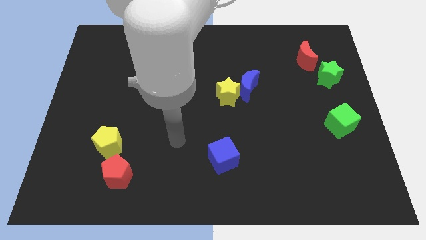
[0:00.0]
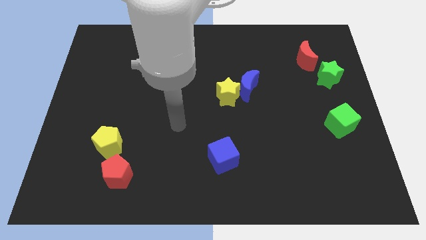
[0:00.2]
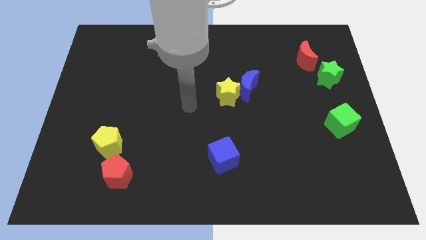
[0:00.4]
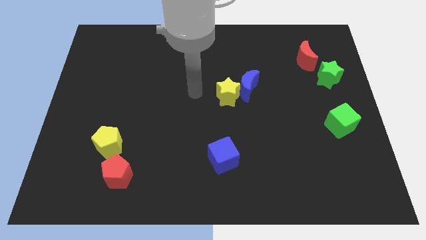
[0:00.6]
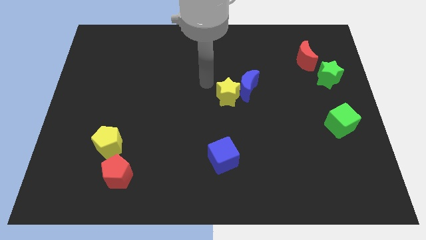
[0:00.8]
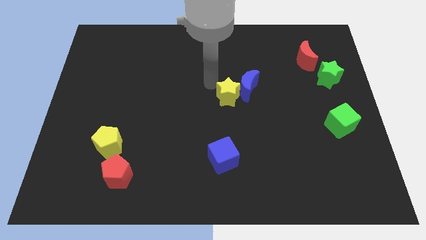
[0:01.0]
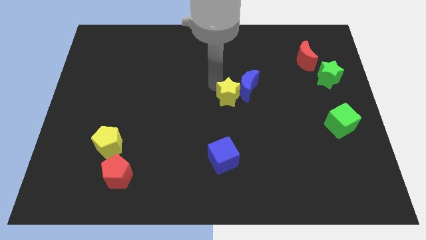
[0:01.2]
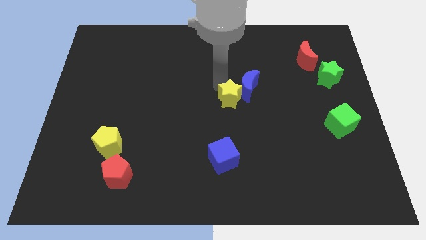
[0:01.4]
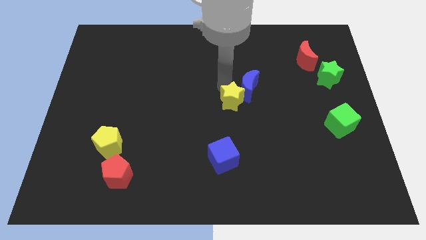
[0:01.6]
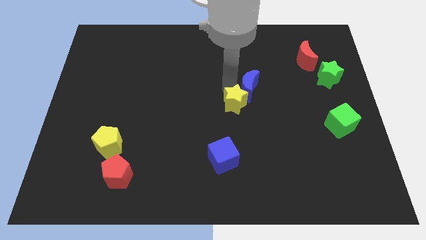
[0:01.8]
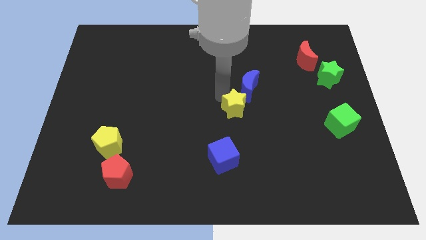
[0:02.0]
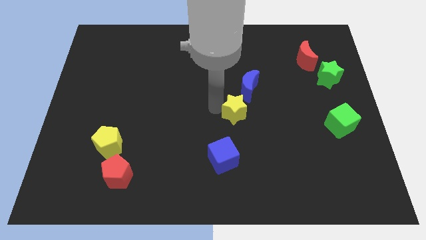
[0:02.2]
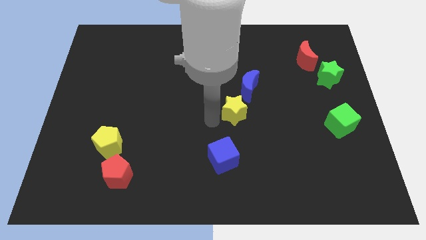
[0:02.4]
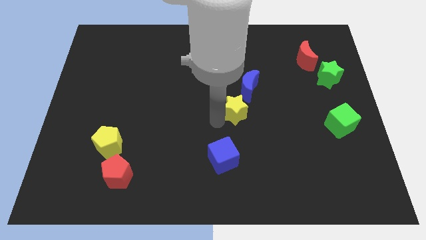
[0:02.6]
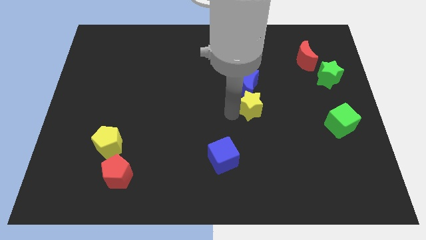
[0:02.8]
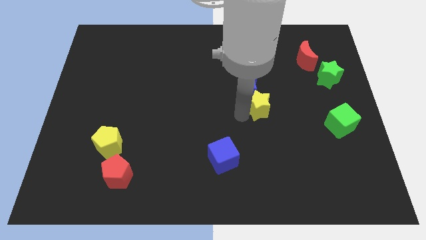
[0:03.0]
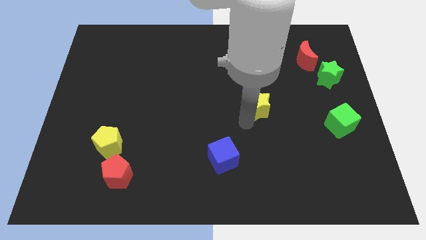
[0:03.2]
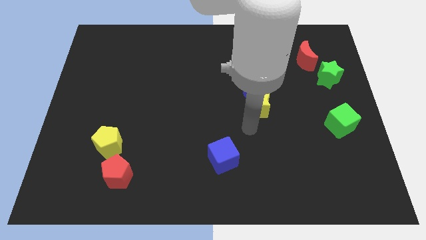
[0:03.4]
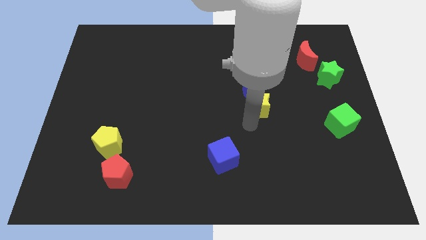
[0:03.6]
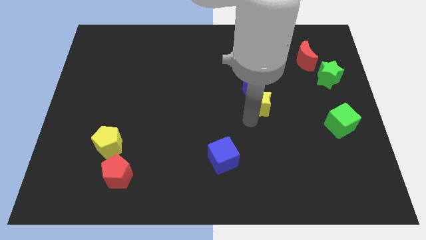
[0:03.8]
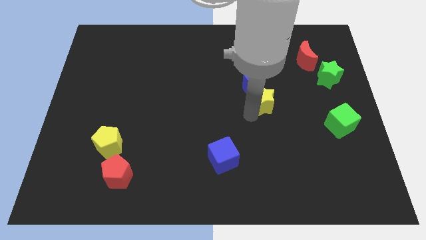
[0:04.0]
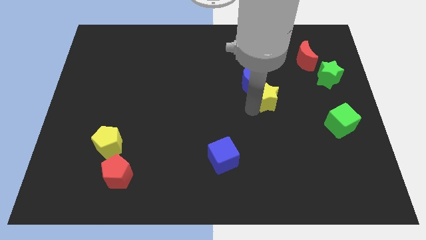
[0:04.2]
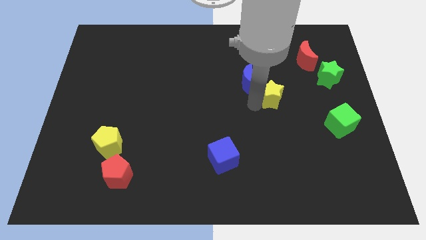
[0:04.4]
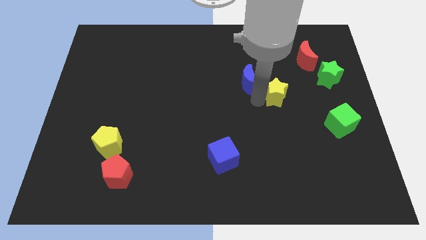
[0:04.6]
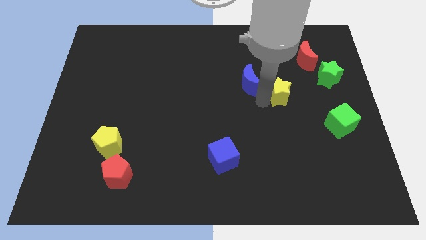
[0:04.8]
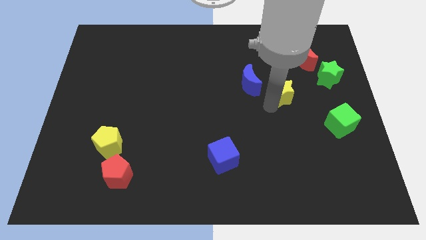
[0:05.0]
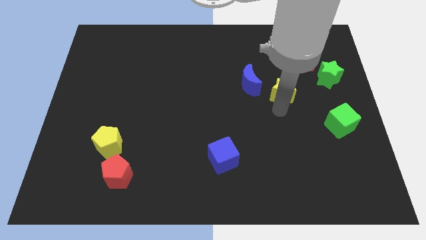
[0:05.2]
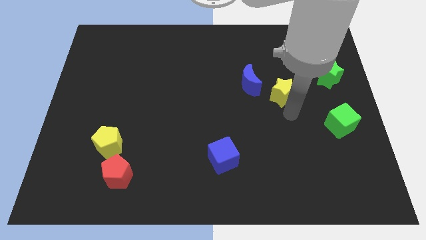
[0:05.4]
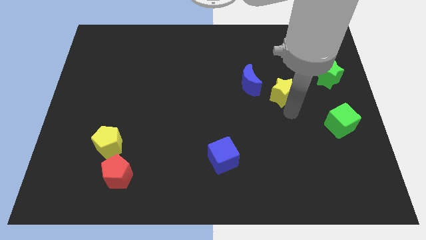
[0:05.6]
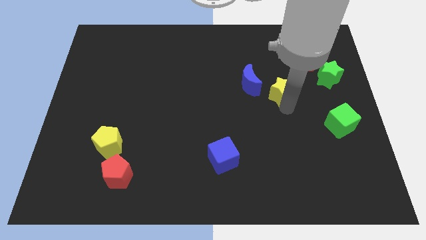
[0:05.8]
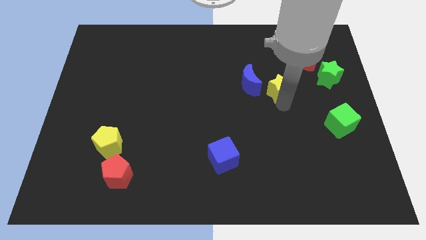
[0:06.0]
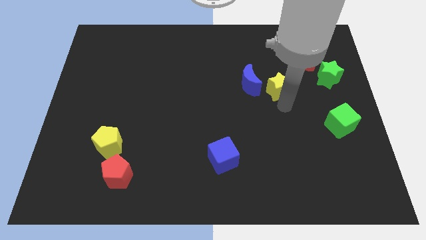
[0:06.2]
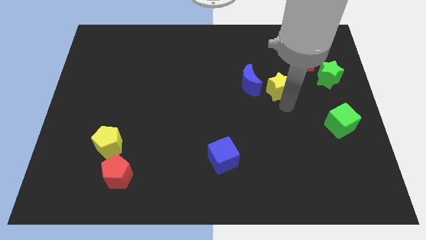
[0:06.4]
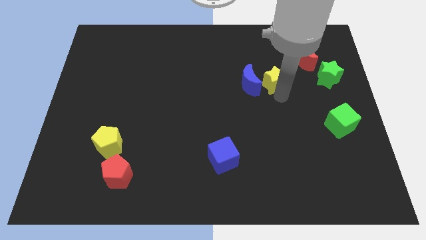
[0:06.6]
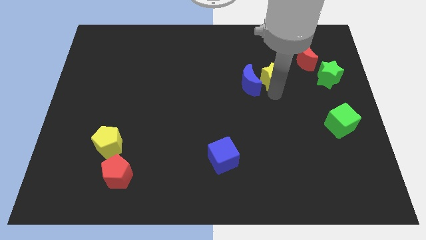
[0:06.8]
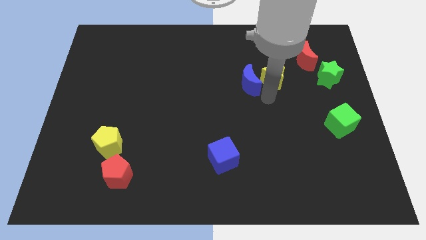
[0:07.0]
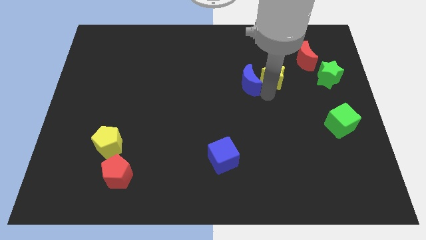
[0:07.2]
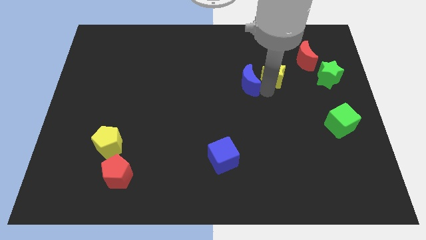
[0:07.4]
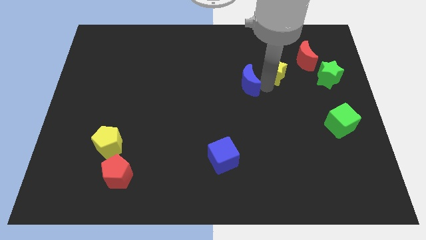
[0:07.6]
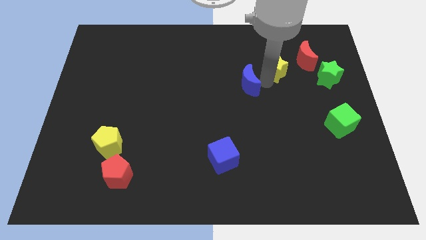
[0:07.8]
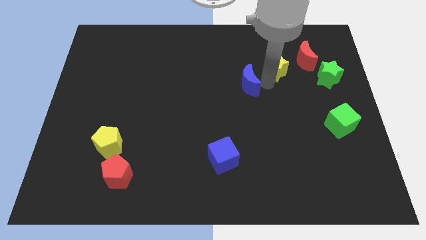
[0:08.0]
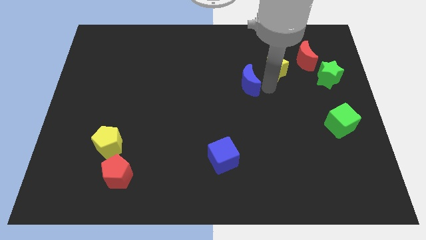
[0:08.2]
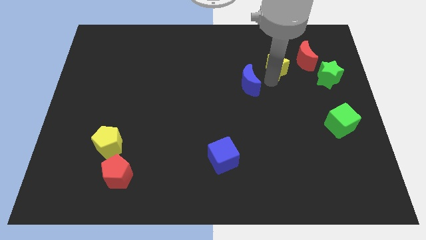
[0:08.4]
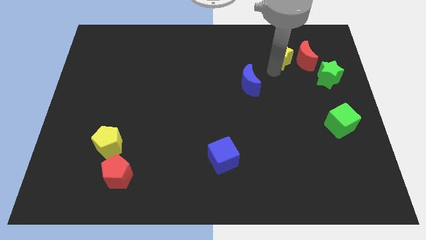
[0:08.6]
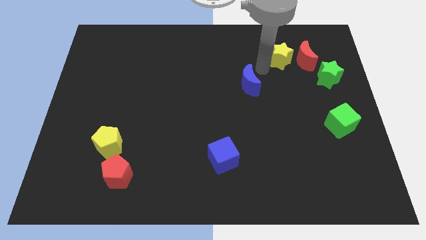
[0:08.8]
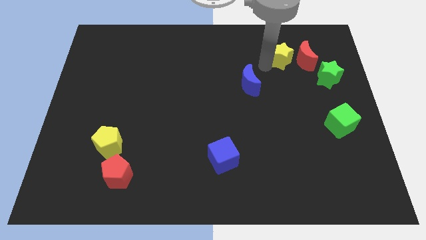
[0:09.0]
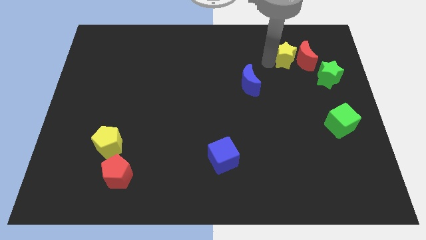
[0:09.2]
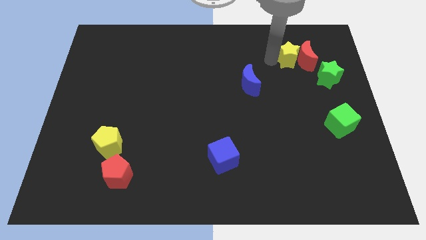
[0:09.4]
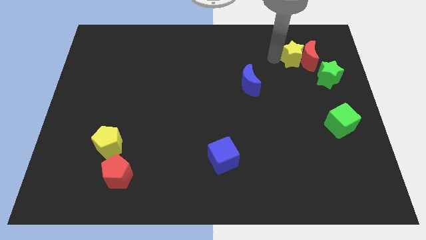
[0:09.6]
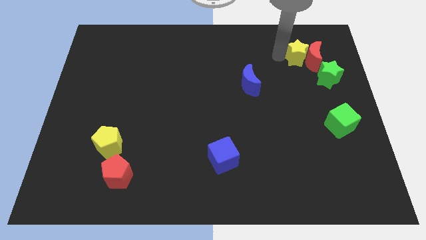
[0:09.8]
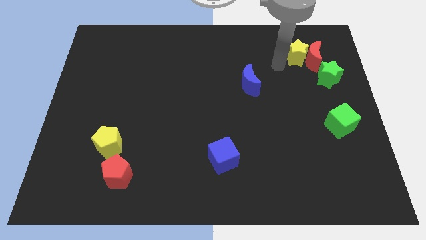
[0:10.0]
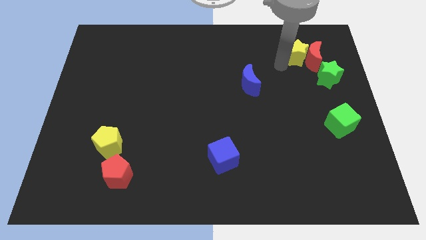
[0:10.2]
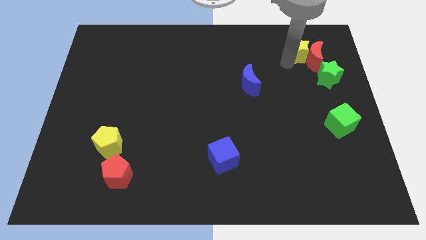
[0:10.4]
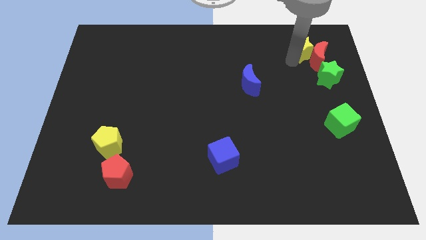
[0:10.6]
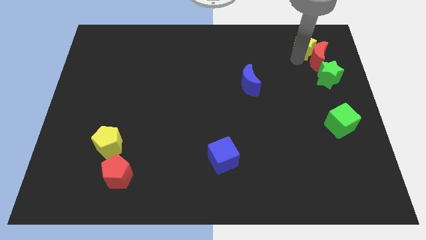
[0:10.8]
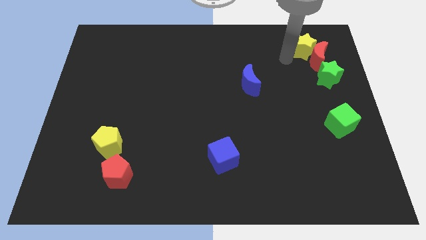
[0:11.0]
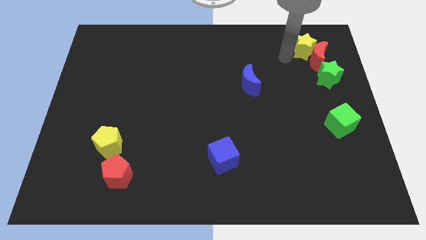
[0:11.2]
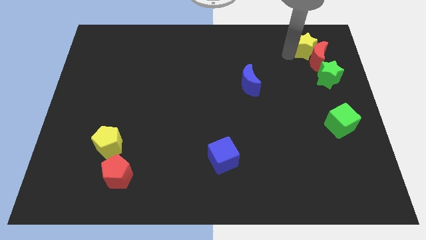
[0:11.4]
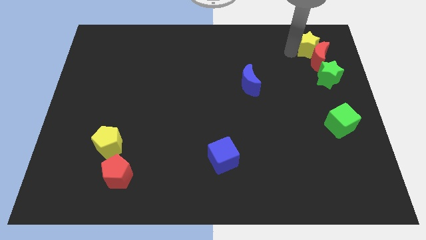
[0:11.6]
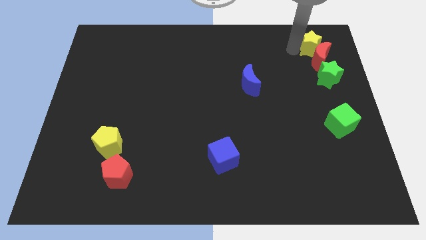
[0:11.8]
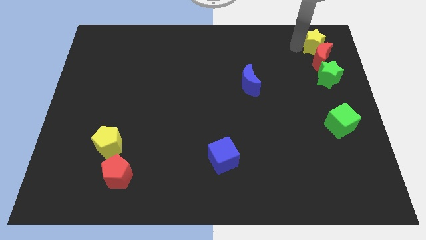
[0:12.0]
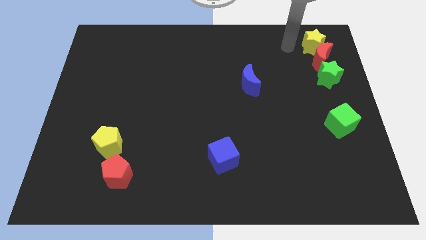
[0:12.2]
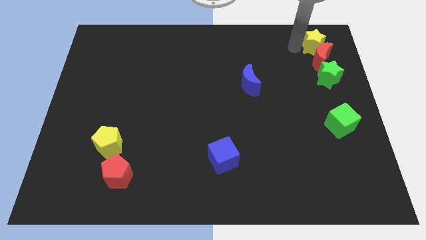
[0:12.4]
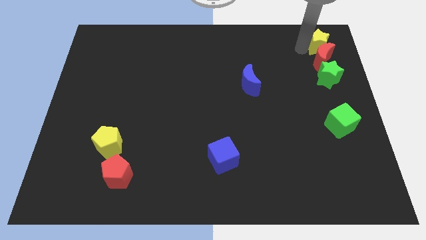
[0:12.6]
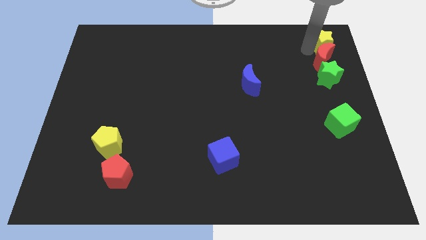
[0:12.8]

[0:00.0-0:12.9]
slide the yellow star to the upper right corner

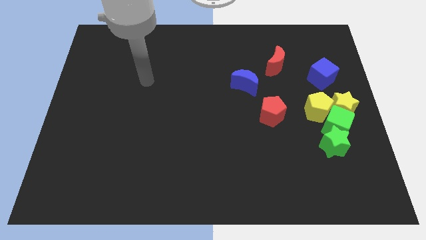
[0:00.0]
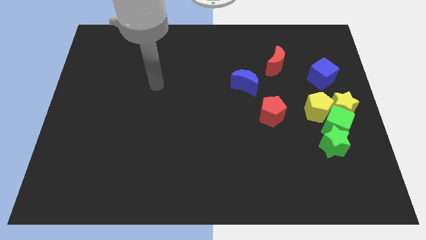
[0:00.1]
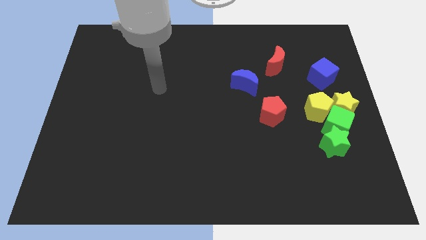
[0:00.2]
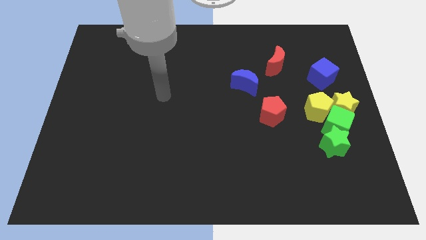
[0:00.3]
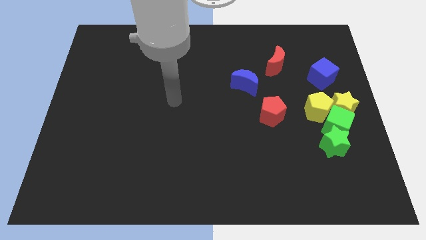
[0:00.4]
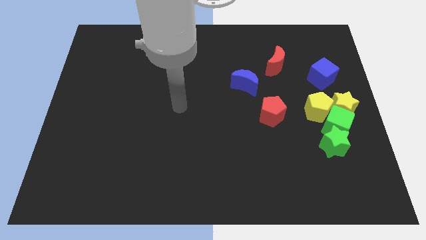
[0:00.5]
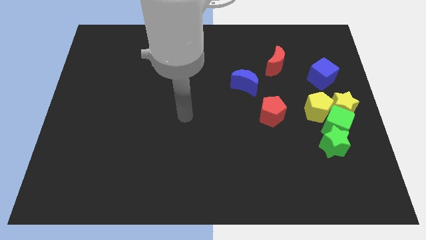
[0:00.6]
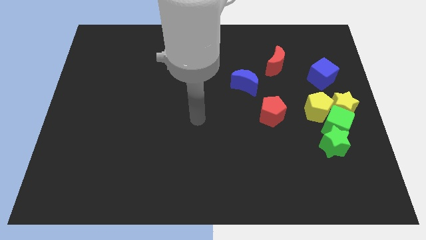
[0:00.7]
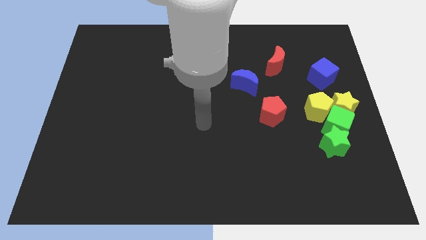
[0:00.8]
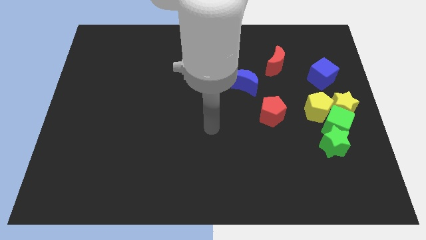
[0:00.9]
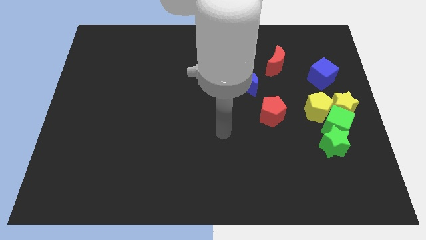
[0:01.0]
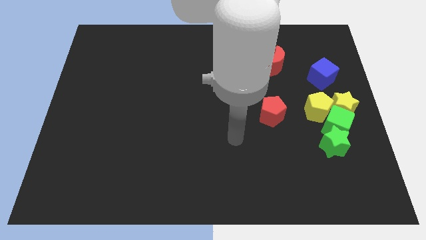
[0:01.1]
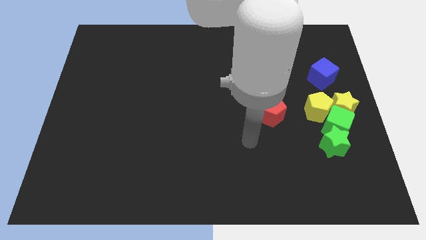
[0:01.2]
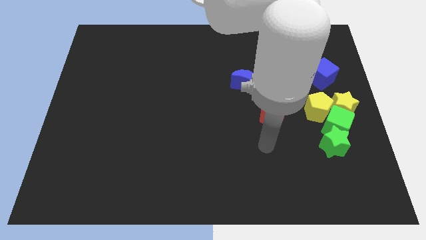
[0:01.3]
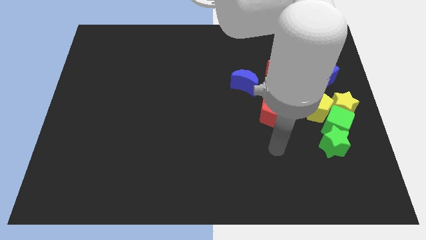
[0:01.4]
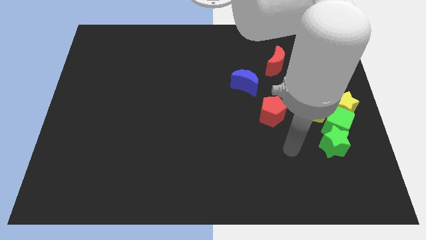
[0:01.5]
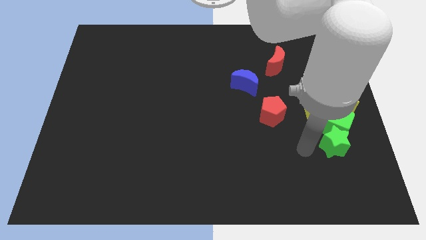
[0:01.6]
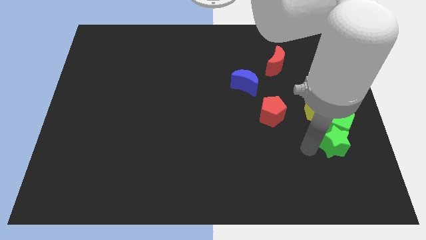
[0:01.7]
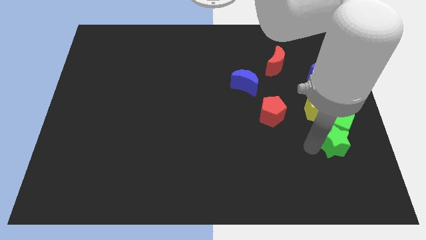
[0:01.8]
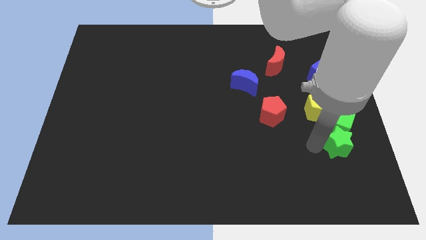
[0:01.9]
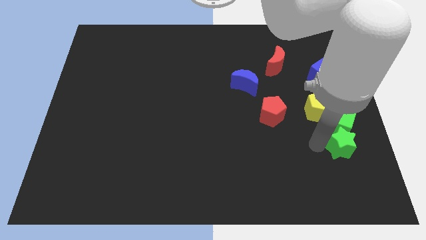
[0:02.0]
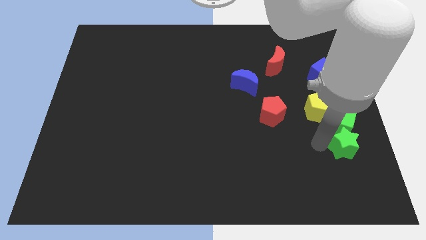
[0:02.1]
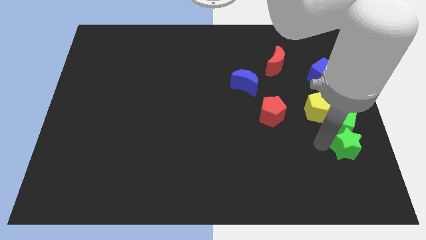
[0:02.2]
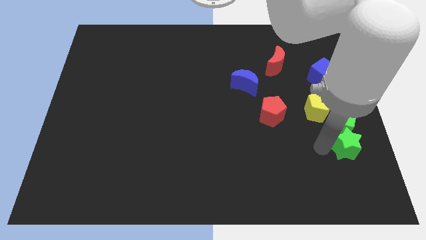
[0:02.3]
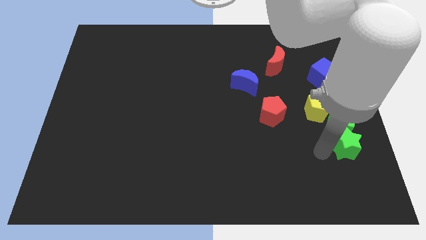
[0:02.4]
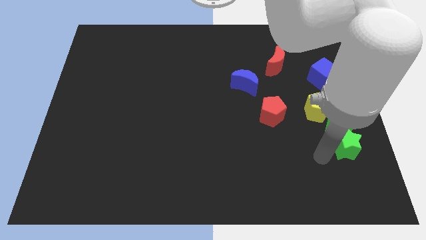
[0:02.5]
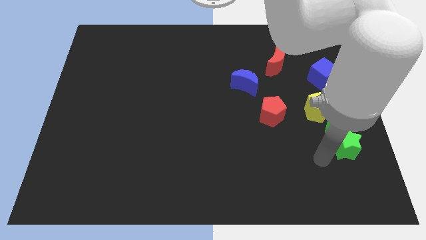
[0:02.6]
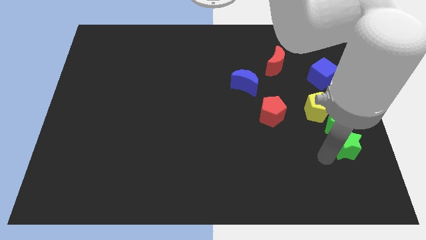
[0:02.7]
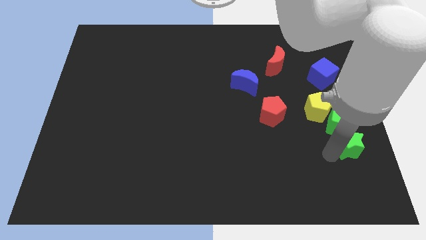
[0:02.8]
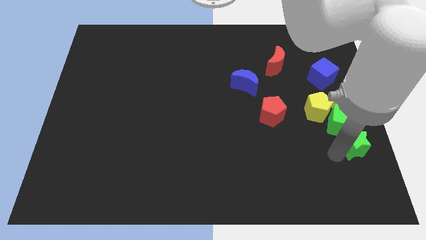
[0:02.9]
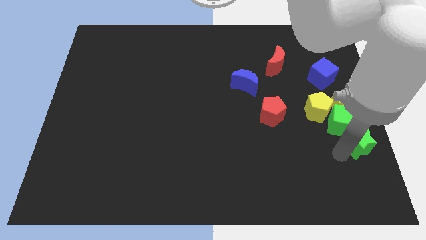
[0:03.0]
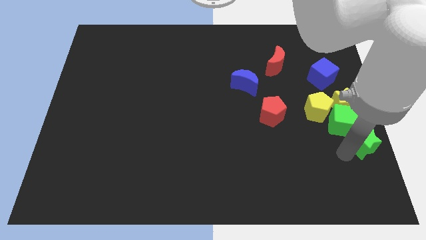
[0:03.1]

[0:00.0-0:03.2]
push the green star to the right side of the board
